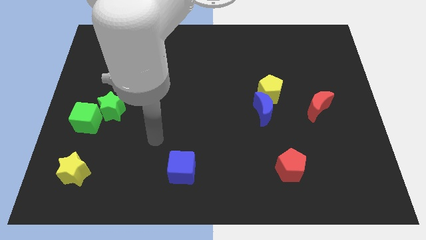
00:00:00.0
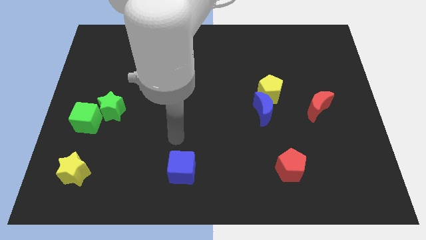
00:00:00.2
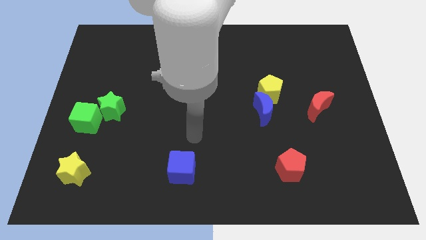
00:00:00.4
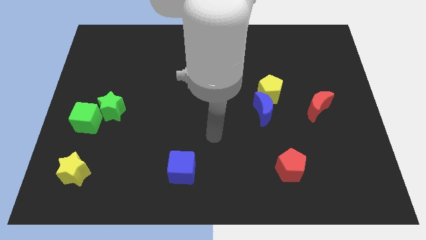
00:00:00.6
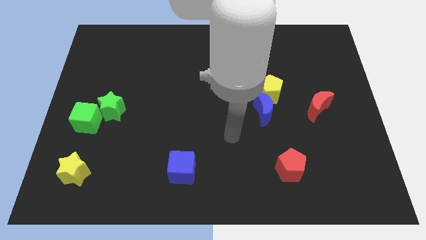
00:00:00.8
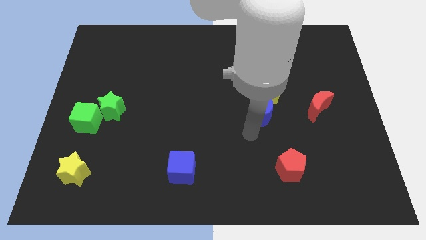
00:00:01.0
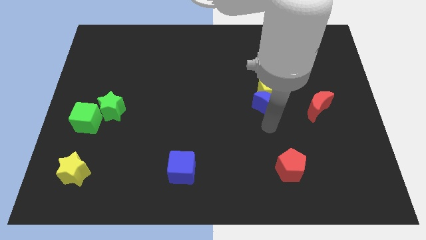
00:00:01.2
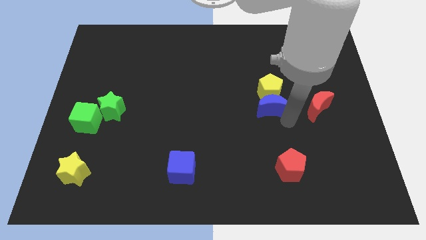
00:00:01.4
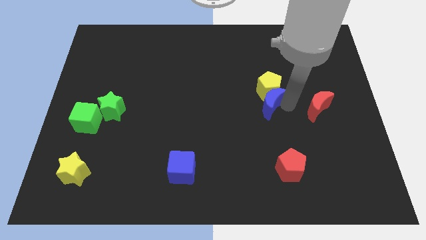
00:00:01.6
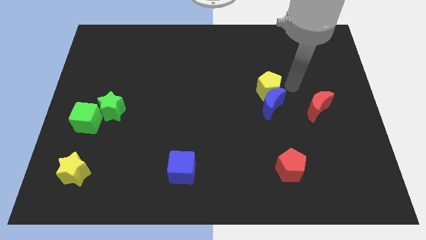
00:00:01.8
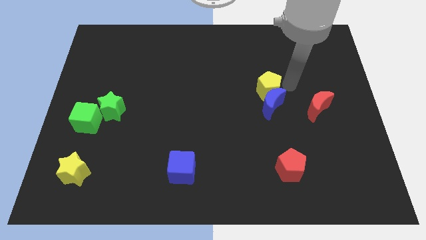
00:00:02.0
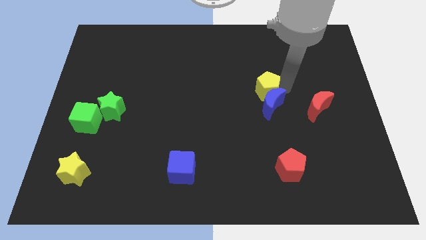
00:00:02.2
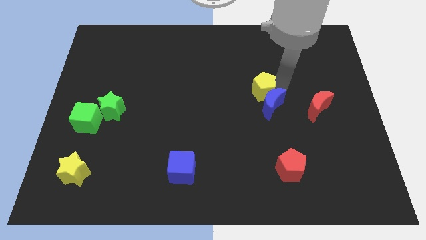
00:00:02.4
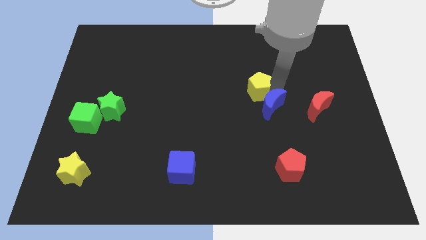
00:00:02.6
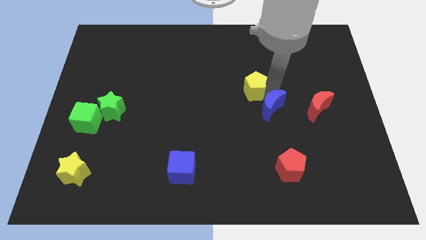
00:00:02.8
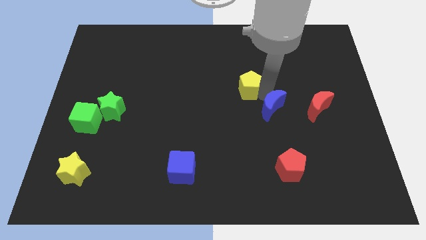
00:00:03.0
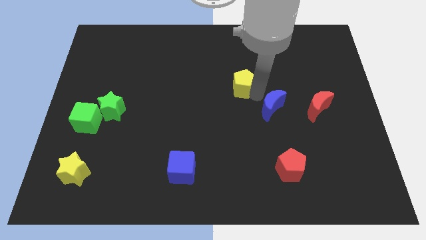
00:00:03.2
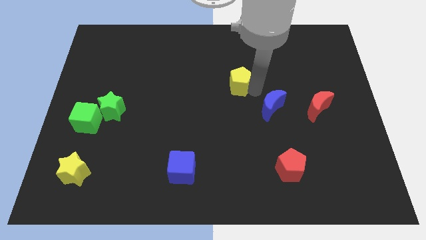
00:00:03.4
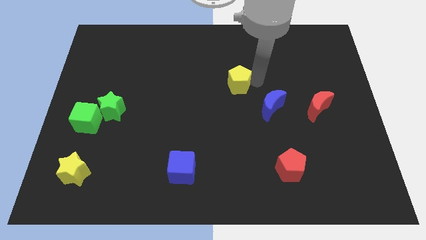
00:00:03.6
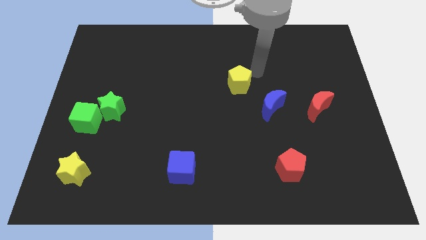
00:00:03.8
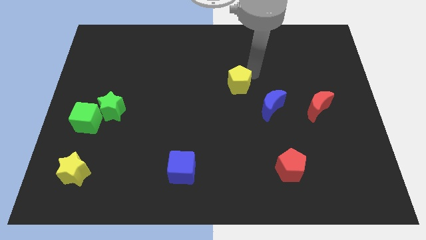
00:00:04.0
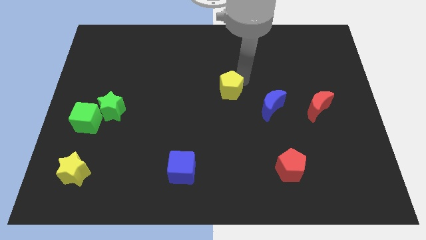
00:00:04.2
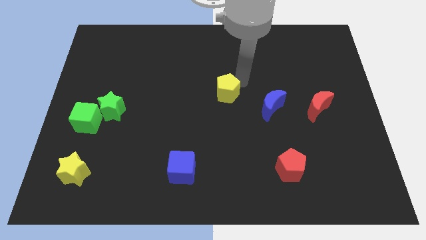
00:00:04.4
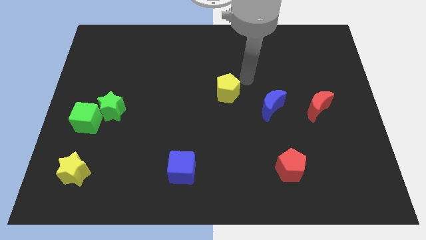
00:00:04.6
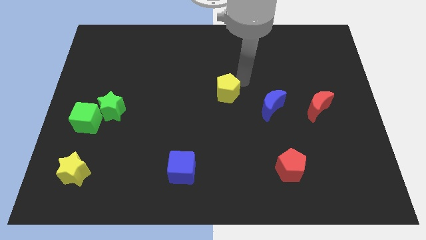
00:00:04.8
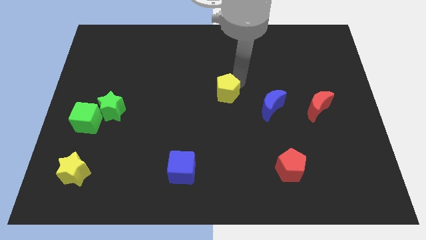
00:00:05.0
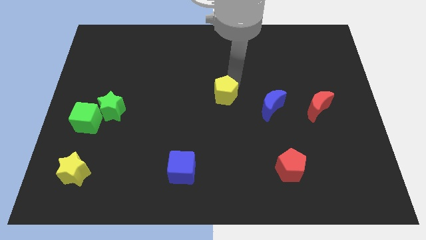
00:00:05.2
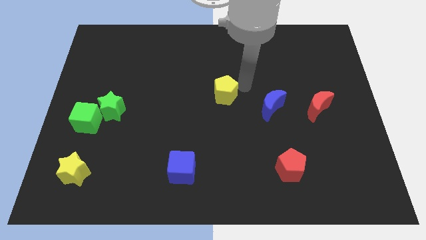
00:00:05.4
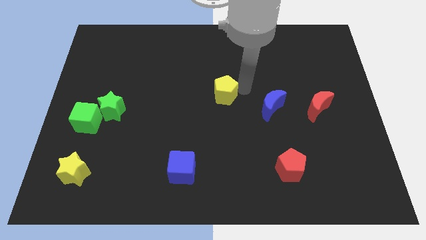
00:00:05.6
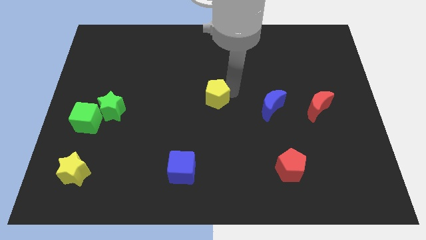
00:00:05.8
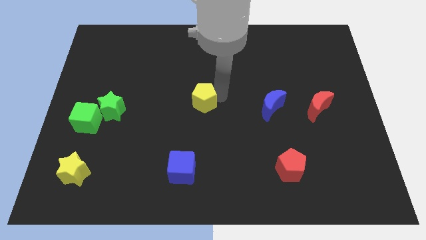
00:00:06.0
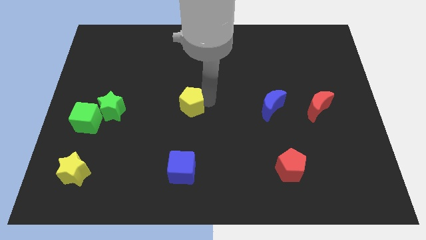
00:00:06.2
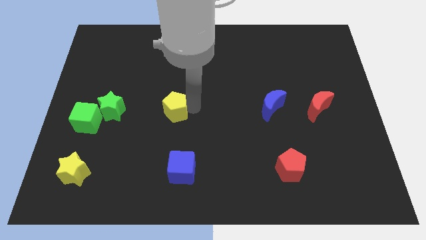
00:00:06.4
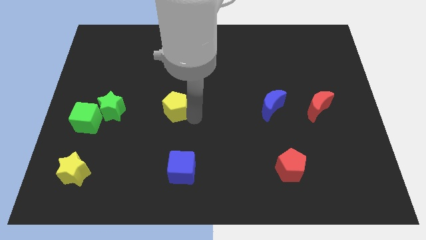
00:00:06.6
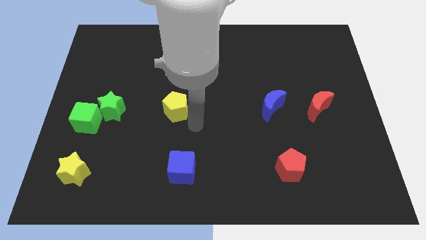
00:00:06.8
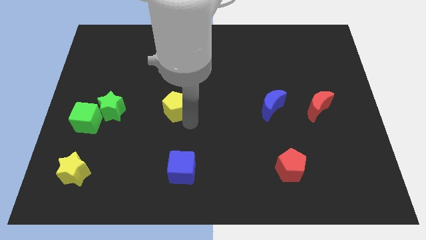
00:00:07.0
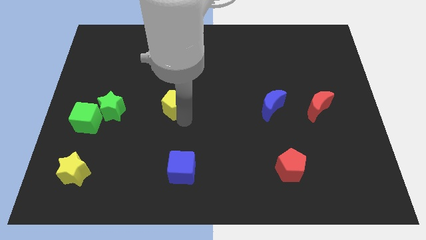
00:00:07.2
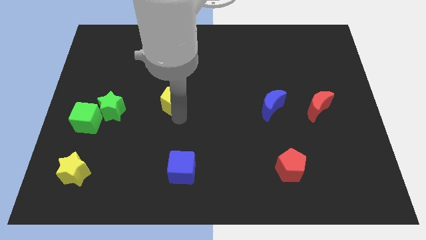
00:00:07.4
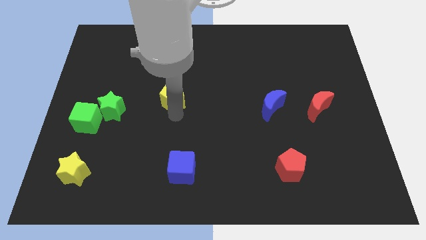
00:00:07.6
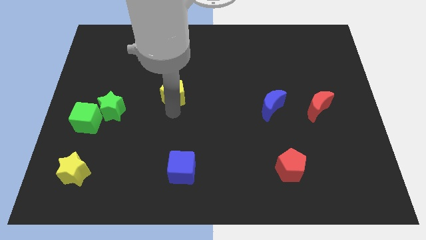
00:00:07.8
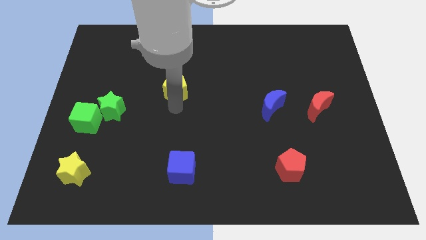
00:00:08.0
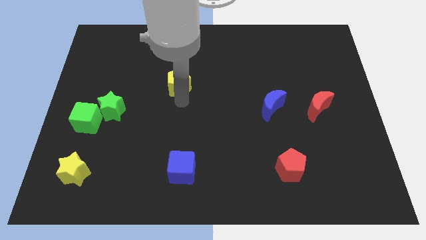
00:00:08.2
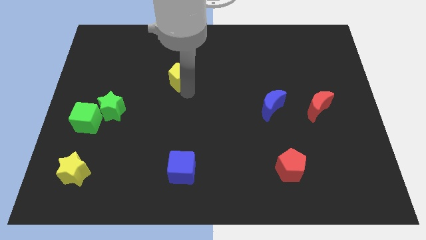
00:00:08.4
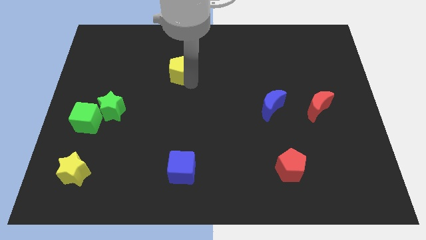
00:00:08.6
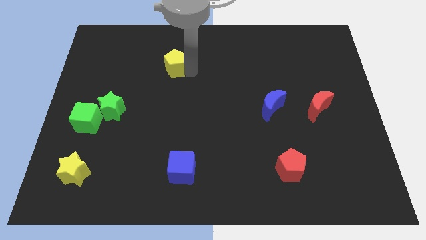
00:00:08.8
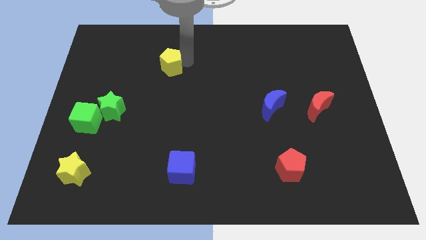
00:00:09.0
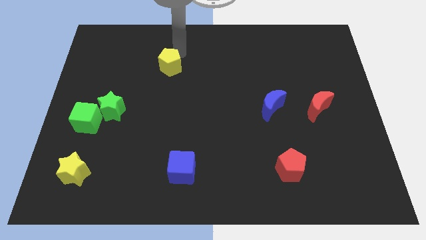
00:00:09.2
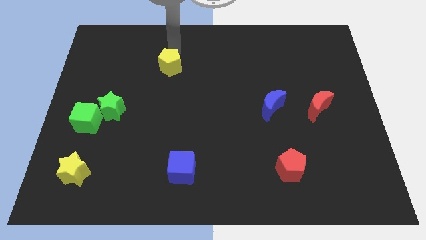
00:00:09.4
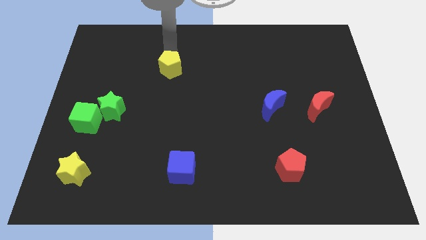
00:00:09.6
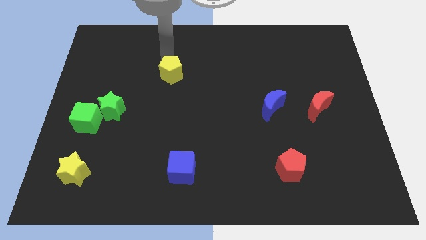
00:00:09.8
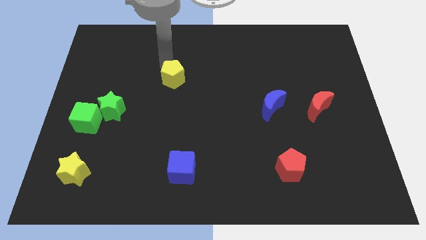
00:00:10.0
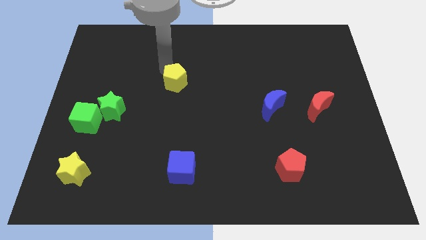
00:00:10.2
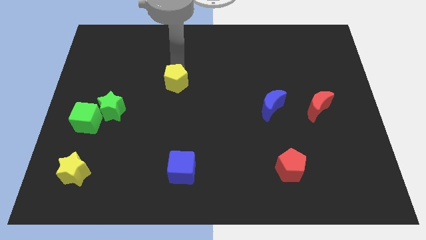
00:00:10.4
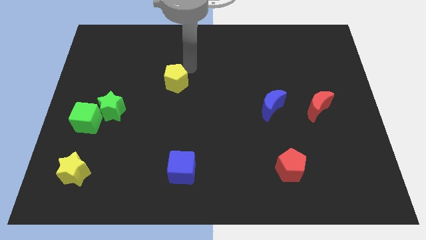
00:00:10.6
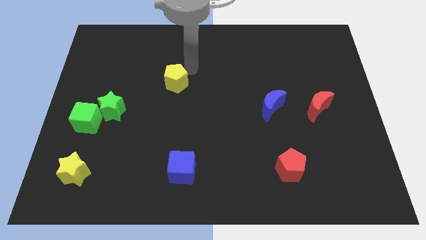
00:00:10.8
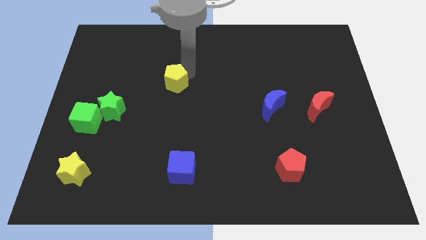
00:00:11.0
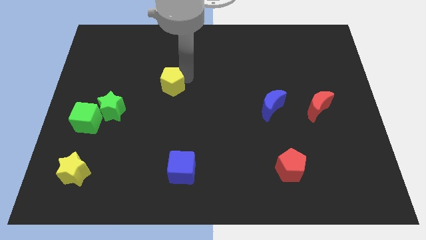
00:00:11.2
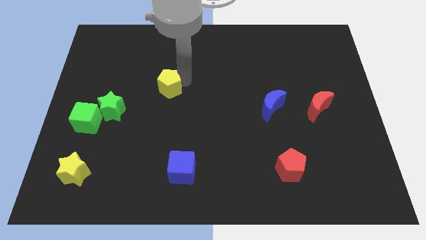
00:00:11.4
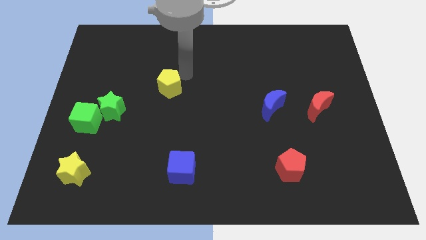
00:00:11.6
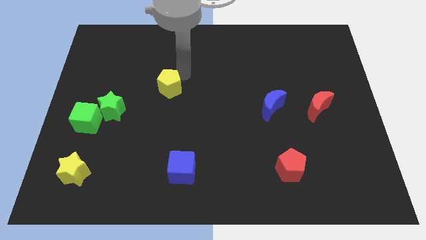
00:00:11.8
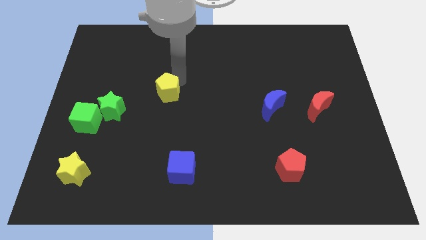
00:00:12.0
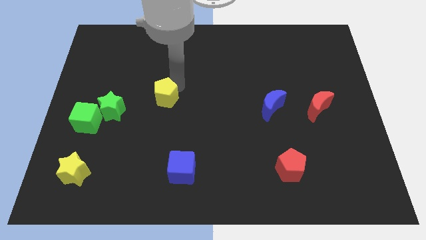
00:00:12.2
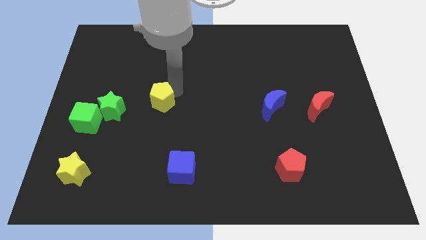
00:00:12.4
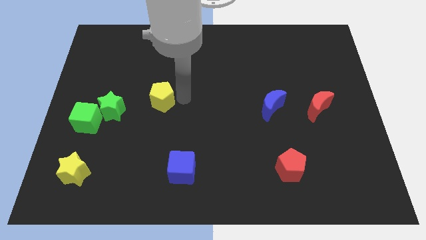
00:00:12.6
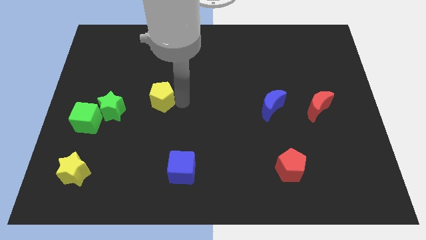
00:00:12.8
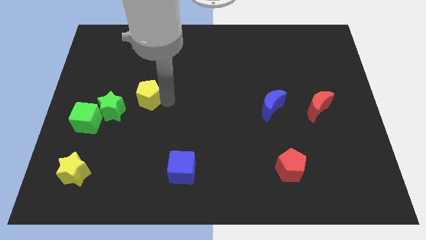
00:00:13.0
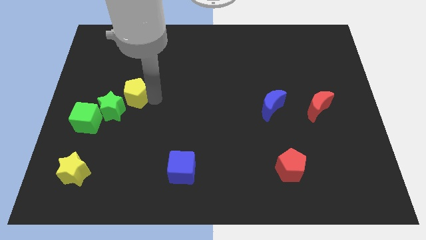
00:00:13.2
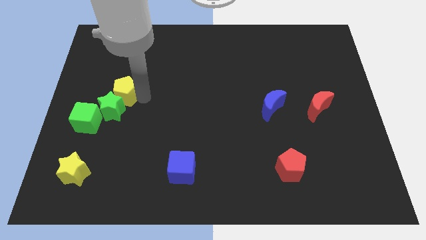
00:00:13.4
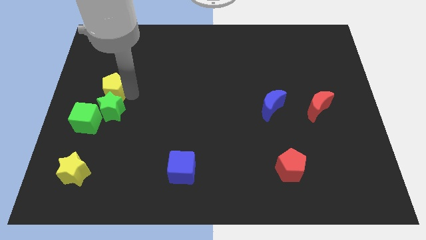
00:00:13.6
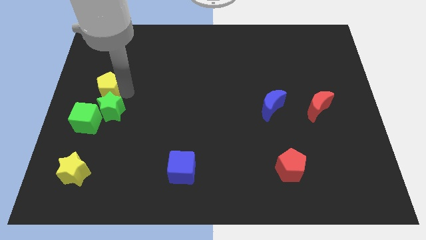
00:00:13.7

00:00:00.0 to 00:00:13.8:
push the yellow pentagon to the center left

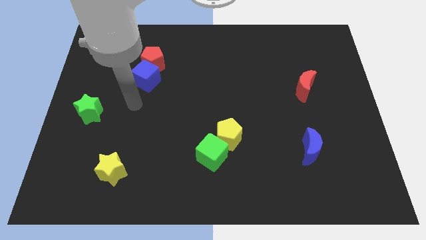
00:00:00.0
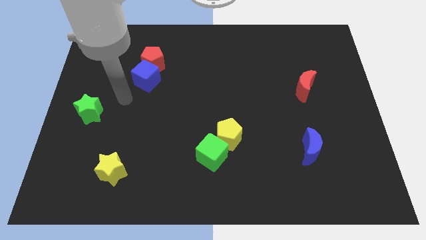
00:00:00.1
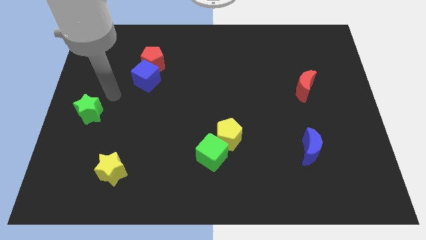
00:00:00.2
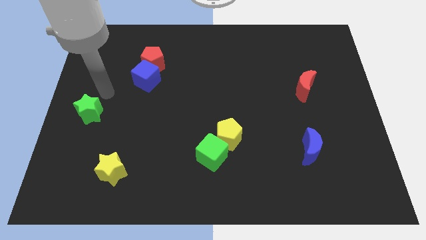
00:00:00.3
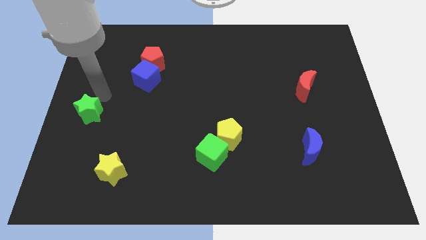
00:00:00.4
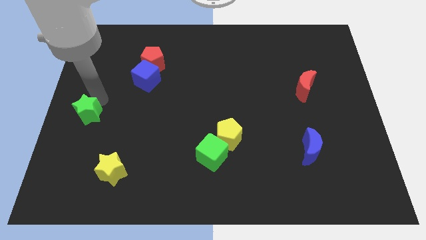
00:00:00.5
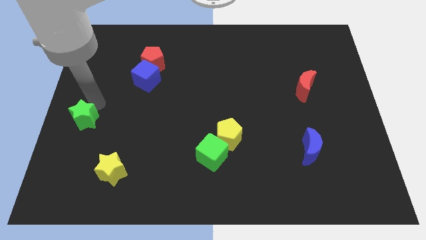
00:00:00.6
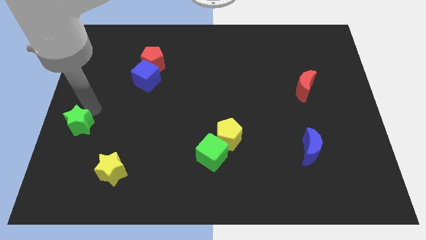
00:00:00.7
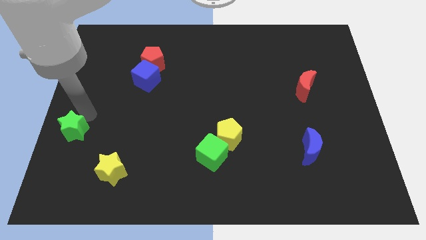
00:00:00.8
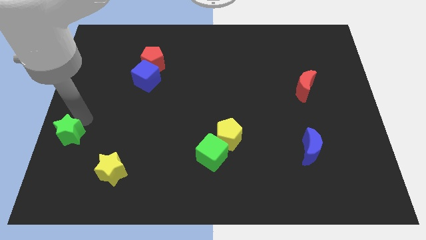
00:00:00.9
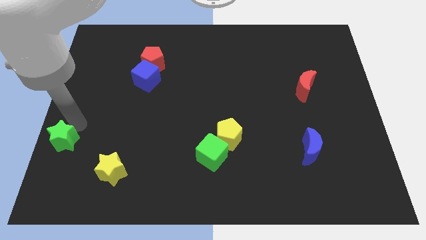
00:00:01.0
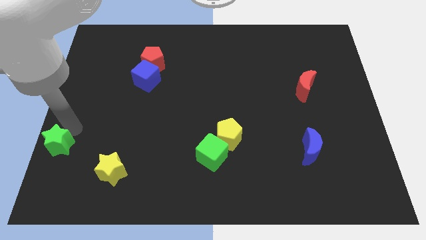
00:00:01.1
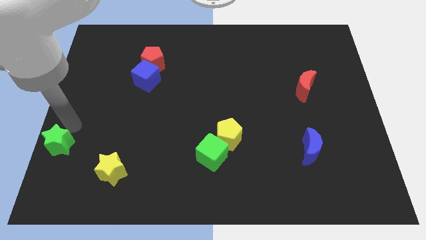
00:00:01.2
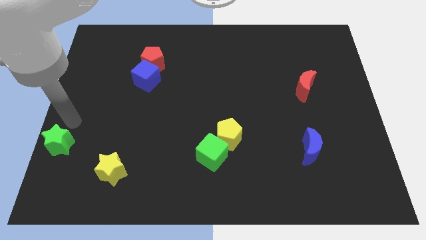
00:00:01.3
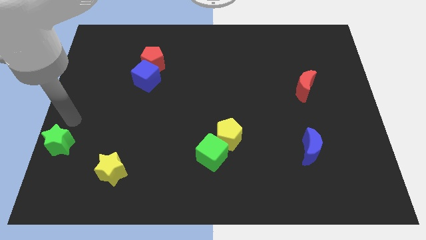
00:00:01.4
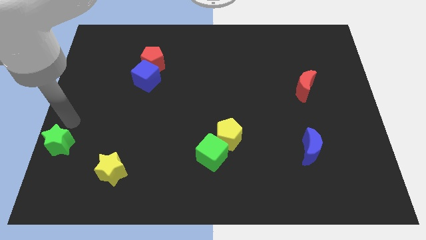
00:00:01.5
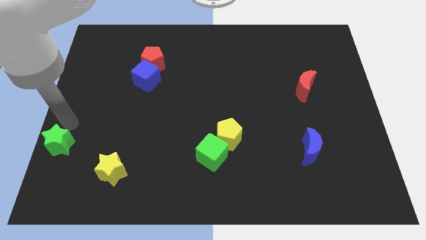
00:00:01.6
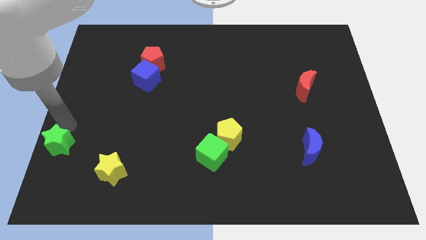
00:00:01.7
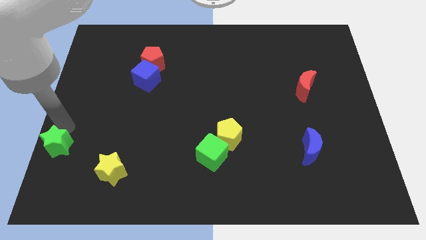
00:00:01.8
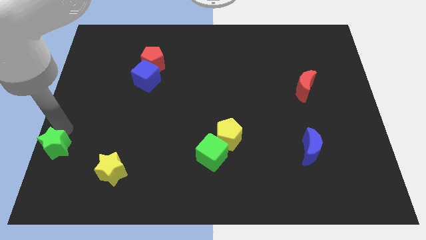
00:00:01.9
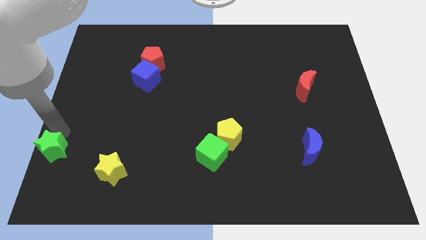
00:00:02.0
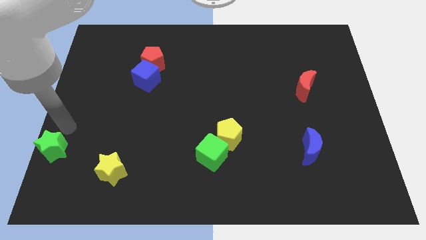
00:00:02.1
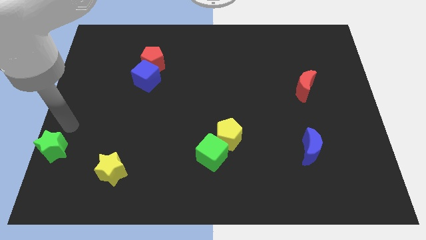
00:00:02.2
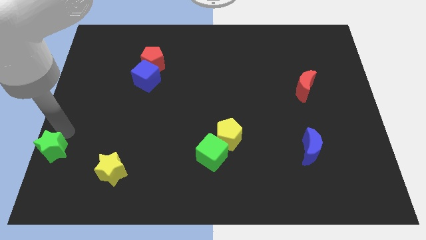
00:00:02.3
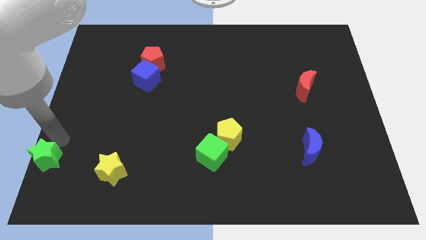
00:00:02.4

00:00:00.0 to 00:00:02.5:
slide the green star to the bottom left corner
